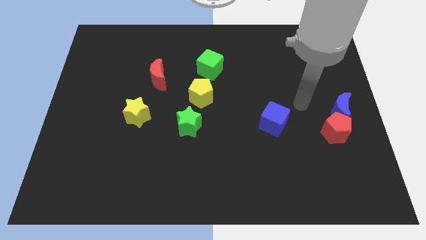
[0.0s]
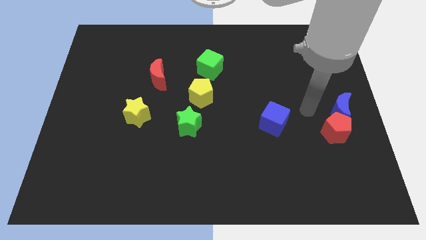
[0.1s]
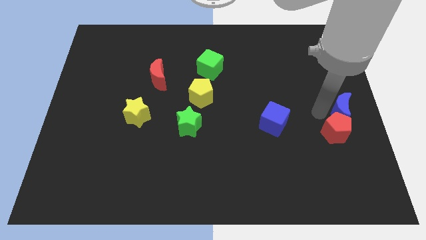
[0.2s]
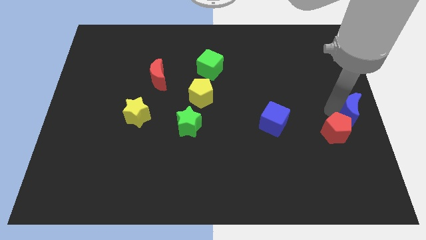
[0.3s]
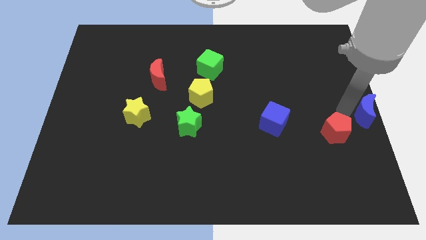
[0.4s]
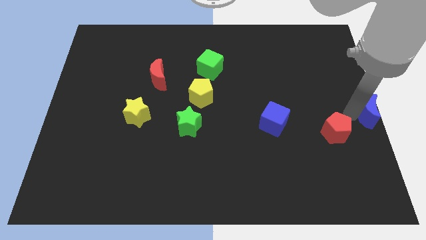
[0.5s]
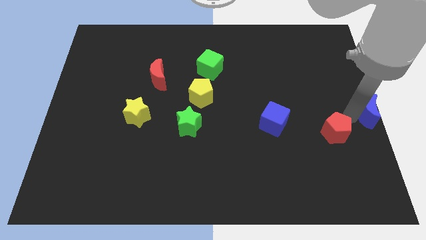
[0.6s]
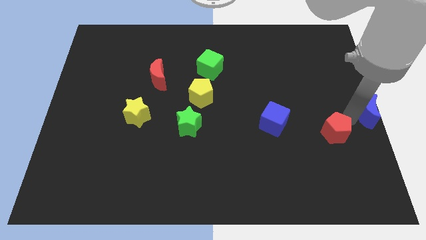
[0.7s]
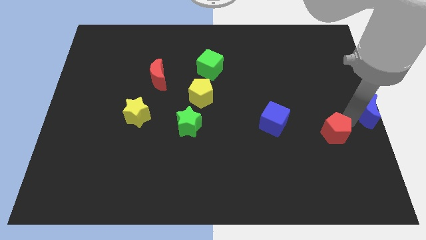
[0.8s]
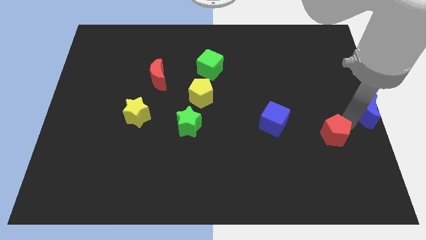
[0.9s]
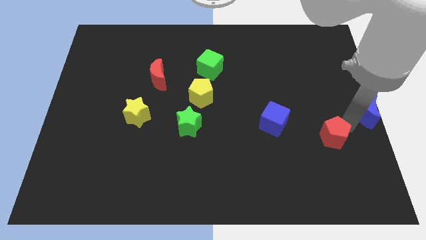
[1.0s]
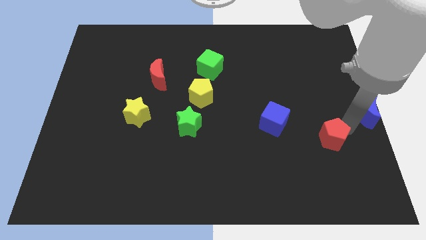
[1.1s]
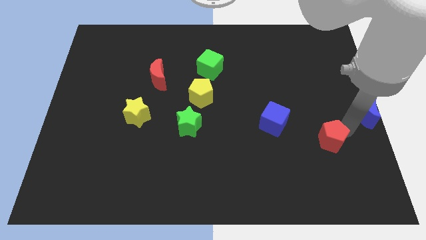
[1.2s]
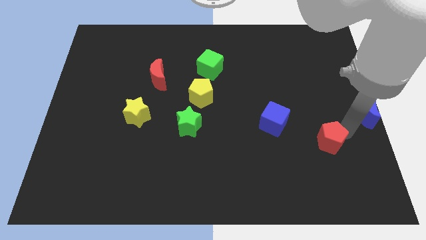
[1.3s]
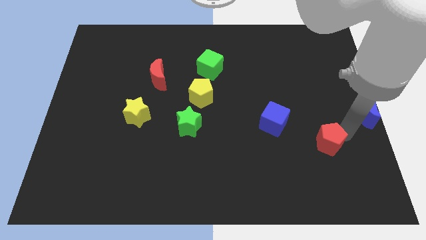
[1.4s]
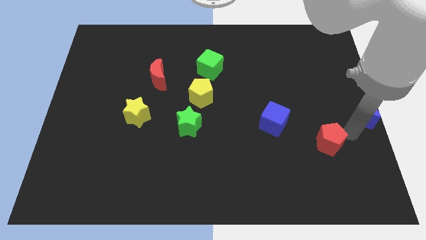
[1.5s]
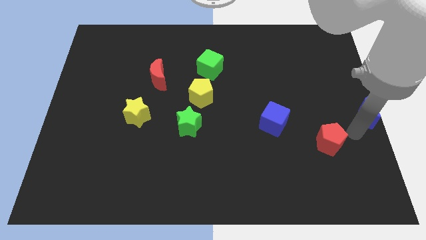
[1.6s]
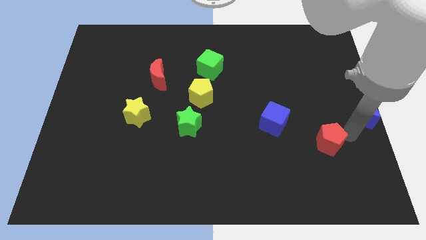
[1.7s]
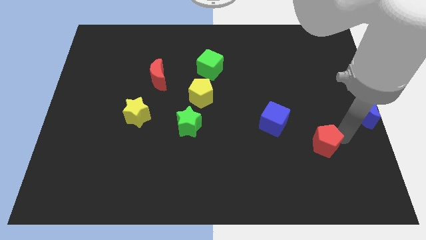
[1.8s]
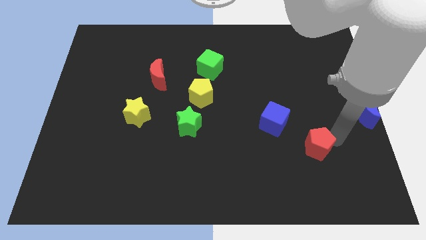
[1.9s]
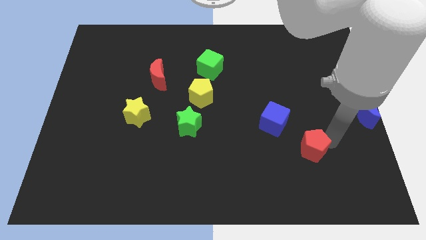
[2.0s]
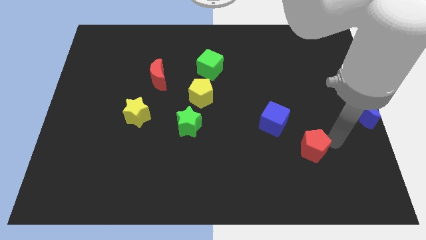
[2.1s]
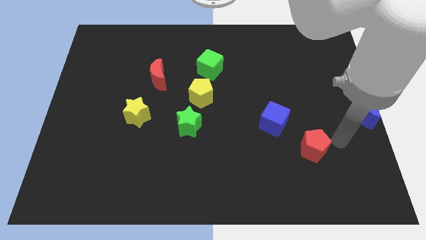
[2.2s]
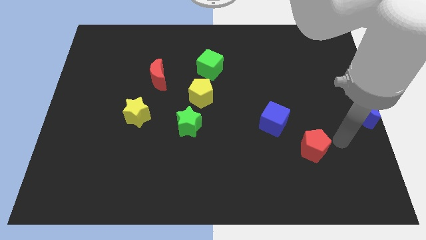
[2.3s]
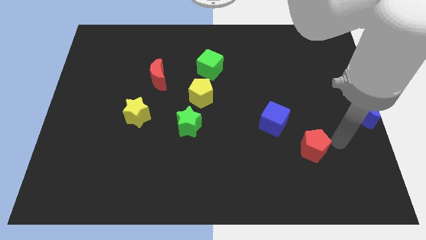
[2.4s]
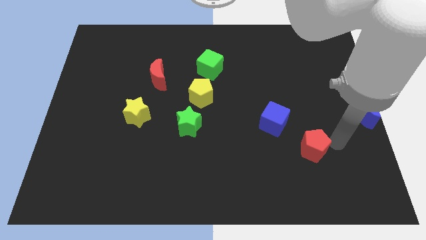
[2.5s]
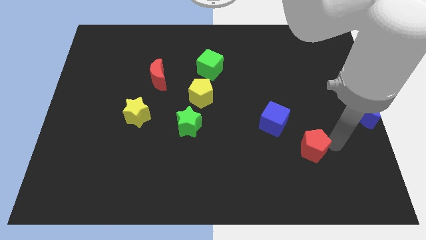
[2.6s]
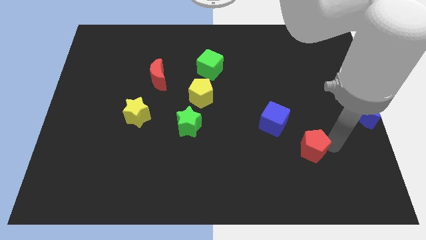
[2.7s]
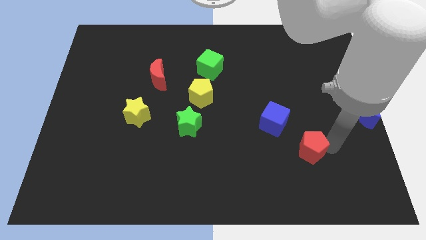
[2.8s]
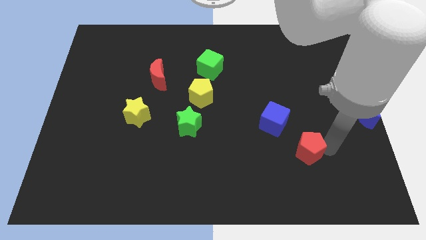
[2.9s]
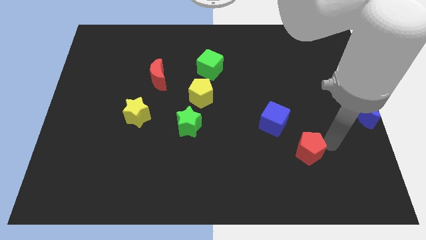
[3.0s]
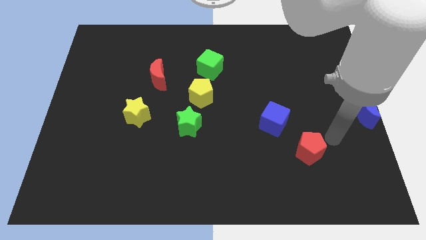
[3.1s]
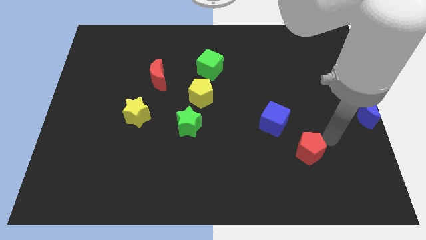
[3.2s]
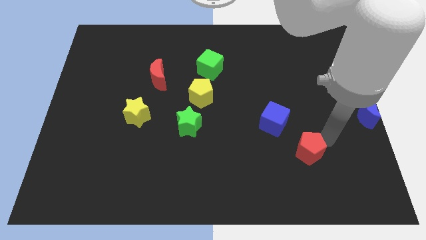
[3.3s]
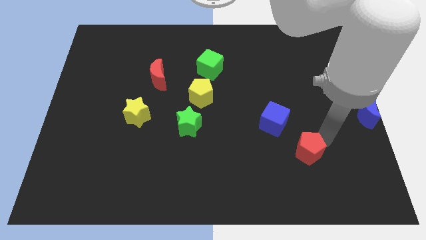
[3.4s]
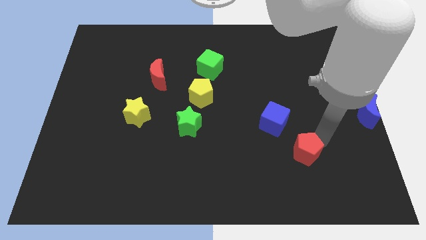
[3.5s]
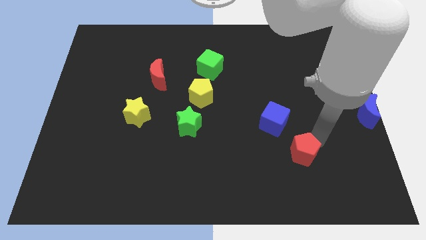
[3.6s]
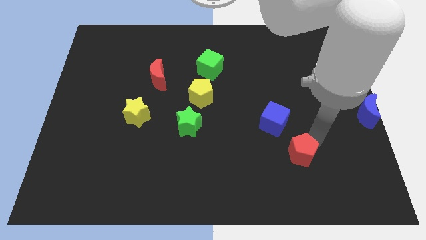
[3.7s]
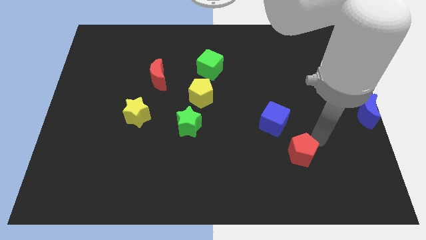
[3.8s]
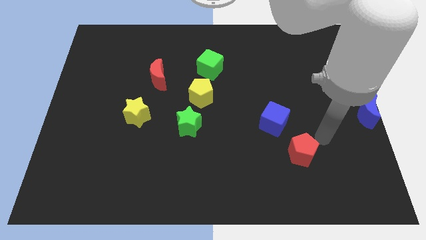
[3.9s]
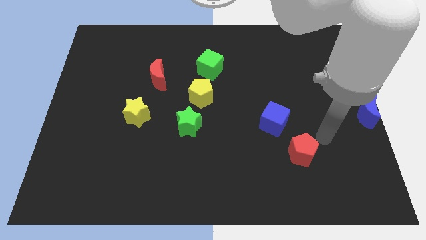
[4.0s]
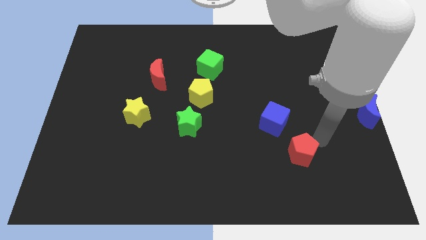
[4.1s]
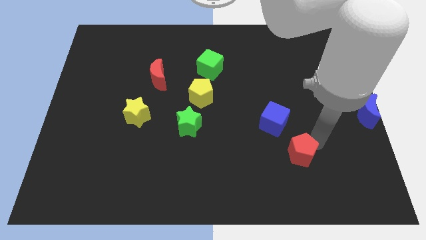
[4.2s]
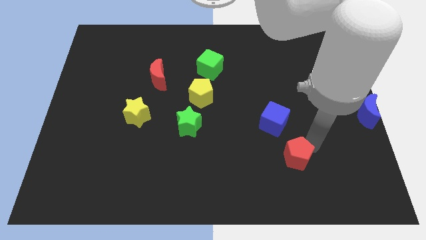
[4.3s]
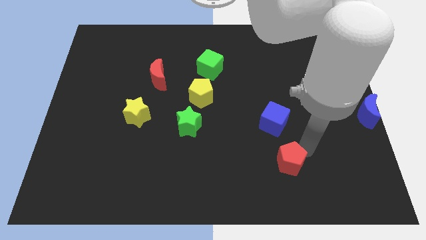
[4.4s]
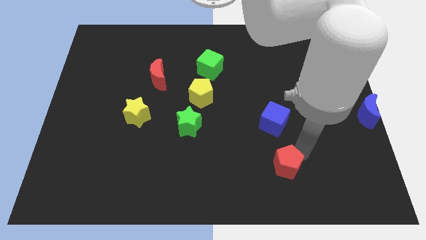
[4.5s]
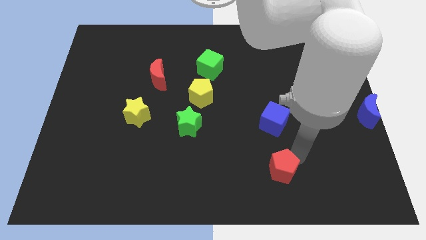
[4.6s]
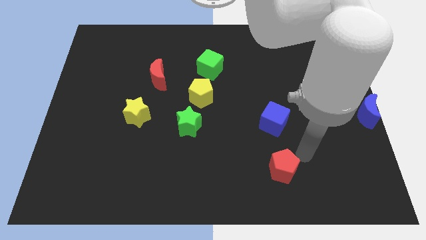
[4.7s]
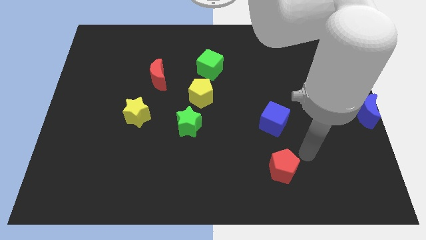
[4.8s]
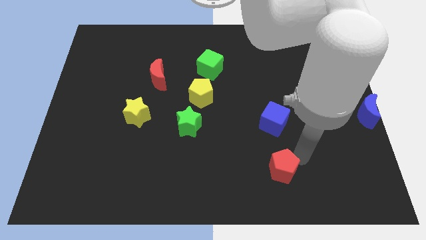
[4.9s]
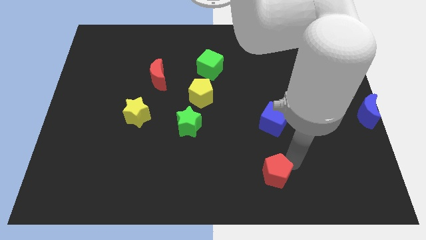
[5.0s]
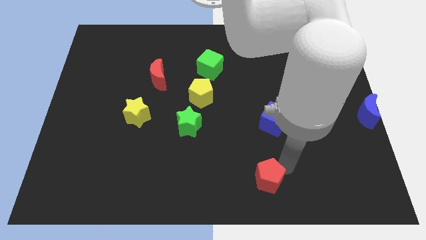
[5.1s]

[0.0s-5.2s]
put the red pentagon to the bottom

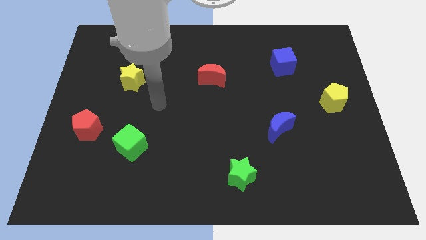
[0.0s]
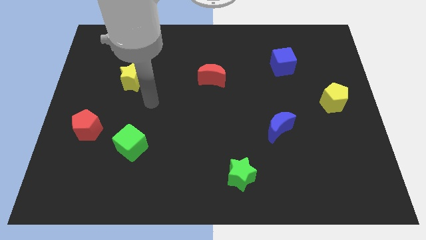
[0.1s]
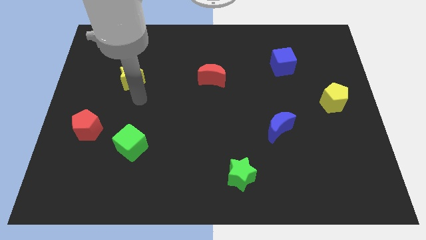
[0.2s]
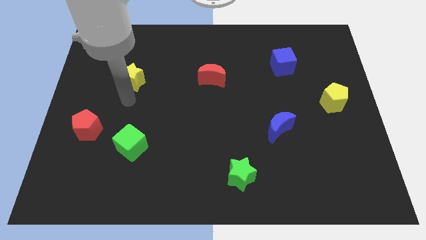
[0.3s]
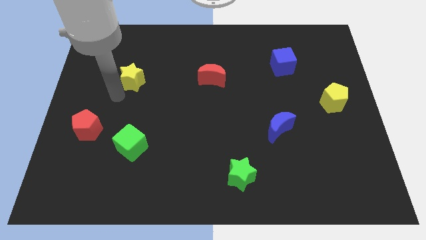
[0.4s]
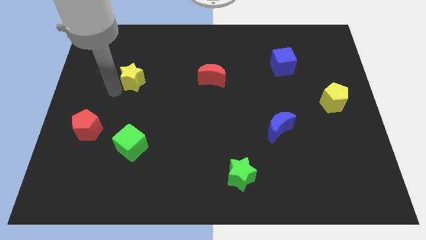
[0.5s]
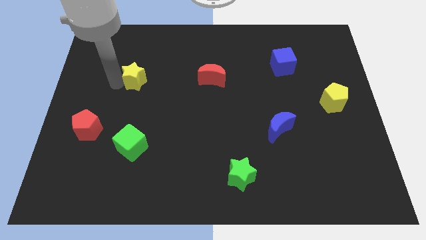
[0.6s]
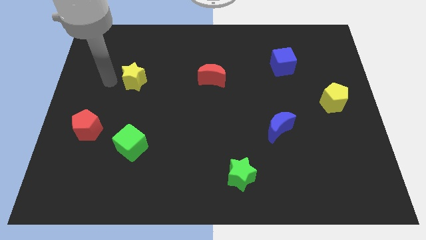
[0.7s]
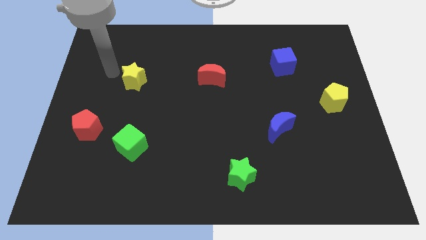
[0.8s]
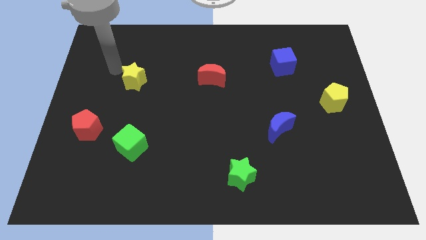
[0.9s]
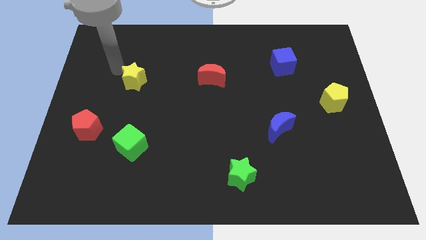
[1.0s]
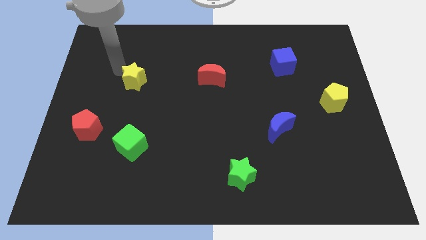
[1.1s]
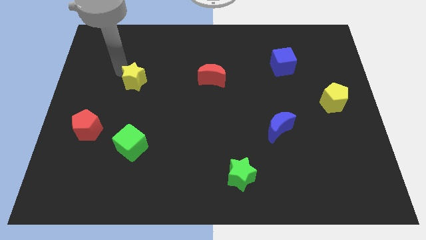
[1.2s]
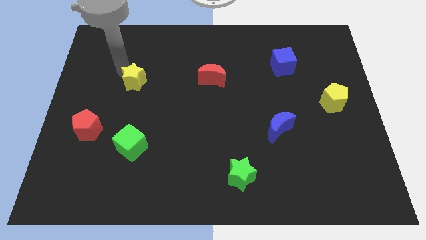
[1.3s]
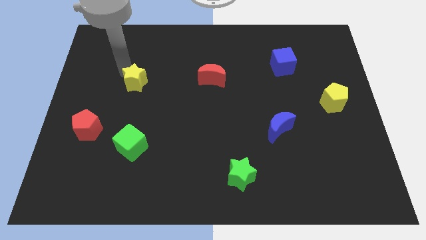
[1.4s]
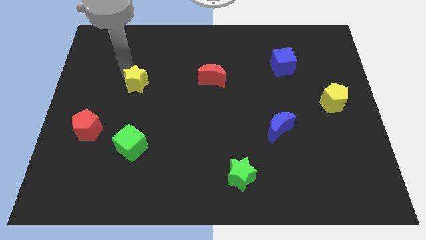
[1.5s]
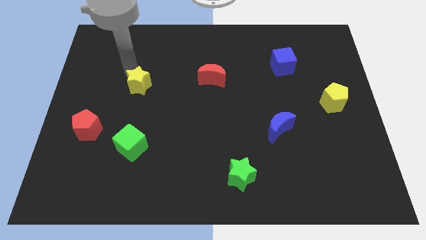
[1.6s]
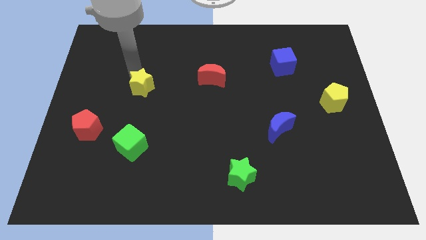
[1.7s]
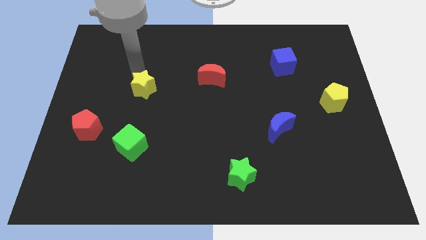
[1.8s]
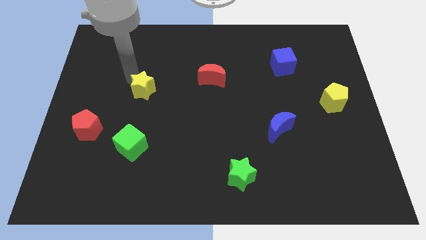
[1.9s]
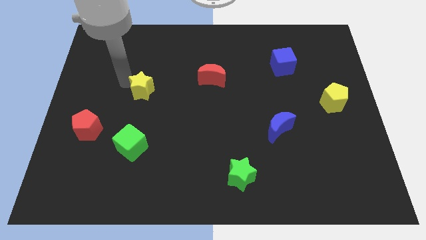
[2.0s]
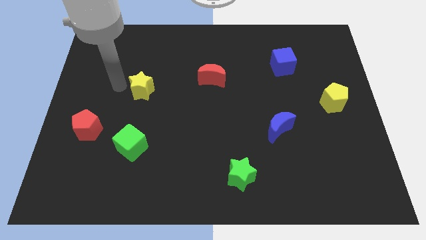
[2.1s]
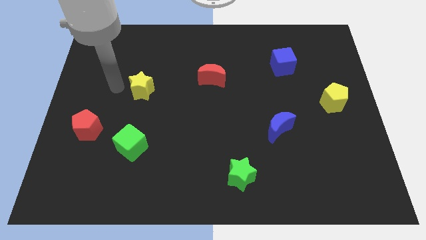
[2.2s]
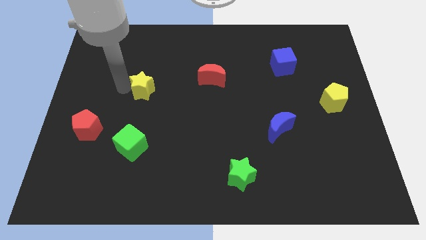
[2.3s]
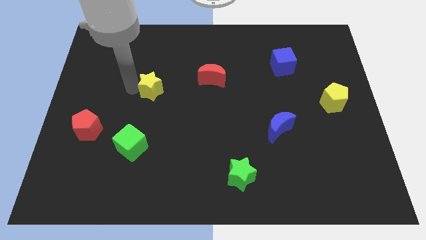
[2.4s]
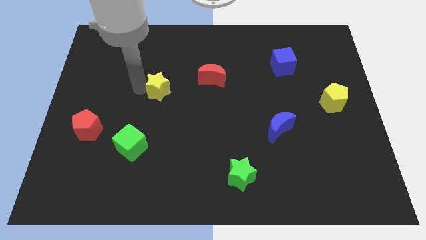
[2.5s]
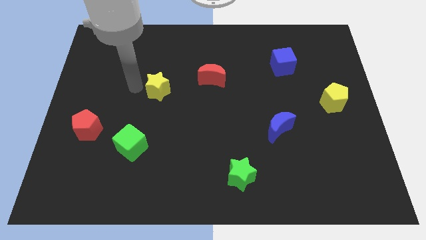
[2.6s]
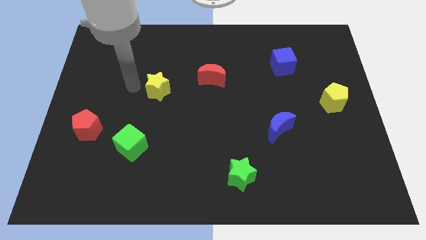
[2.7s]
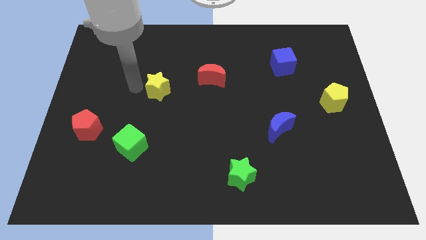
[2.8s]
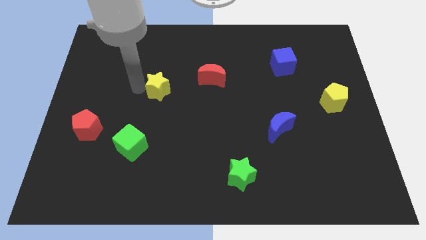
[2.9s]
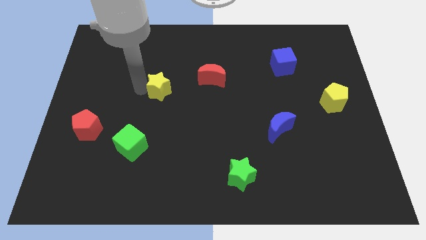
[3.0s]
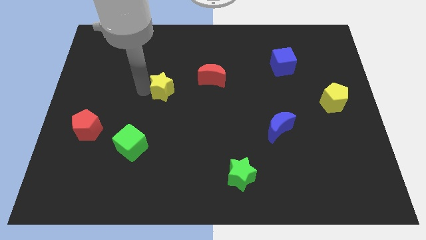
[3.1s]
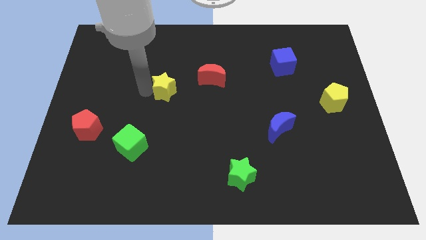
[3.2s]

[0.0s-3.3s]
put the yellow star to the center of the board
